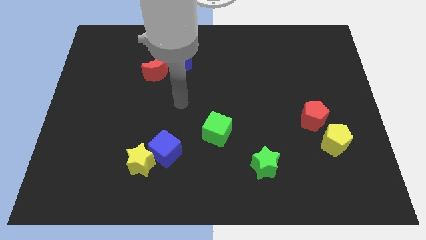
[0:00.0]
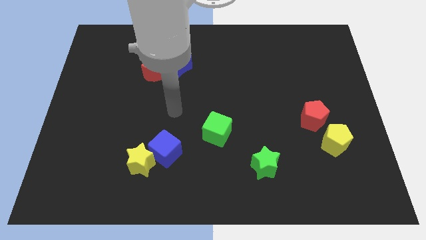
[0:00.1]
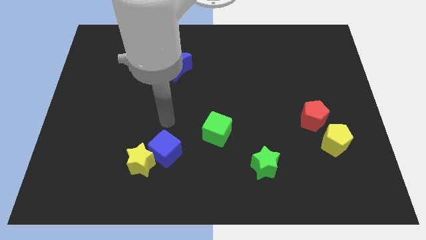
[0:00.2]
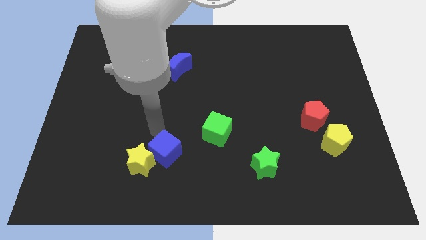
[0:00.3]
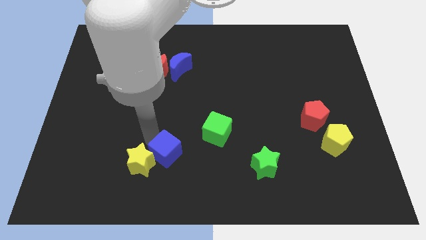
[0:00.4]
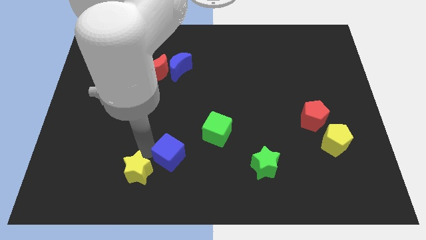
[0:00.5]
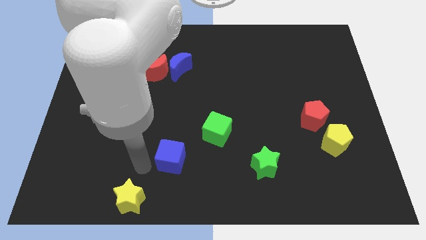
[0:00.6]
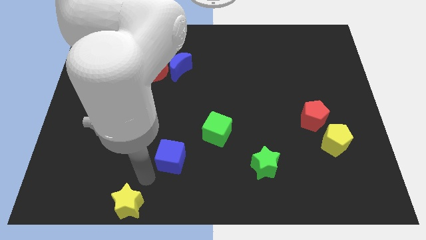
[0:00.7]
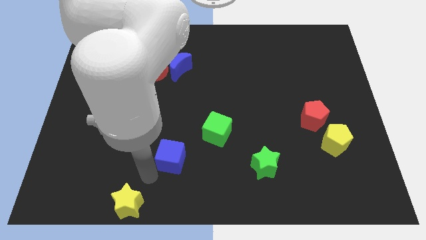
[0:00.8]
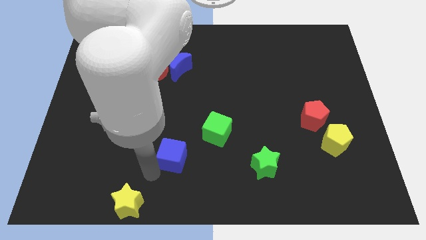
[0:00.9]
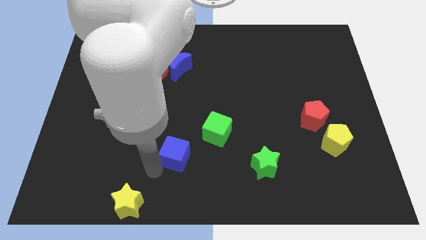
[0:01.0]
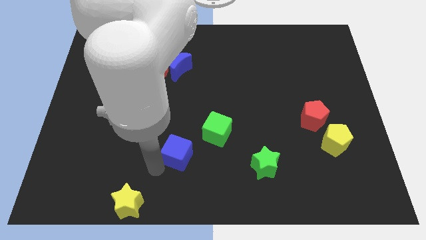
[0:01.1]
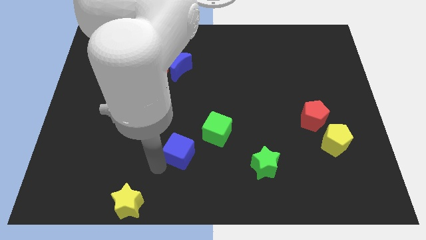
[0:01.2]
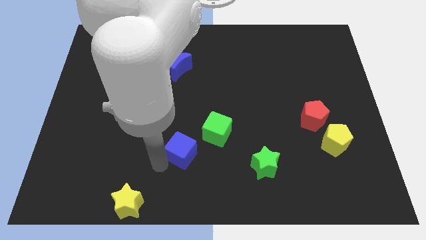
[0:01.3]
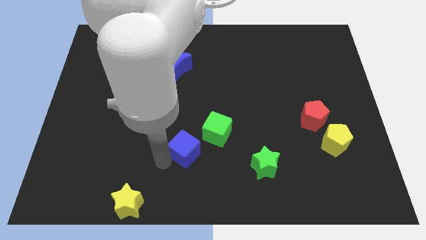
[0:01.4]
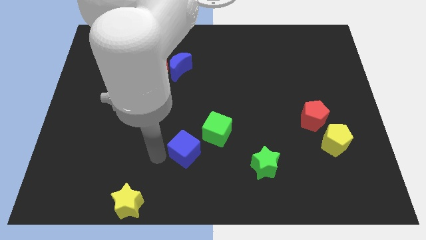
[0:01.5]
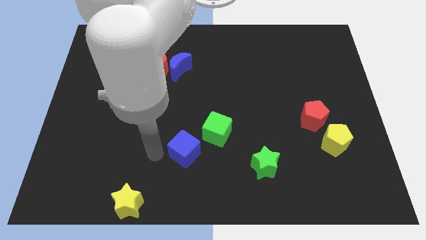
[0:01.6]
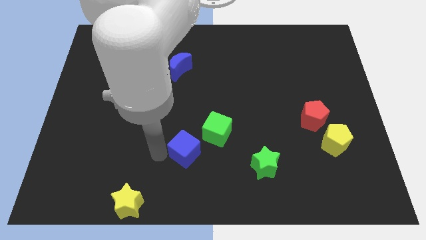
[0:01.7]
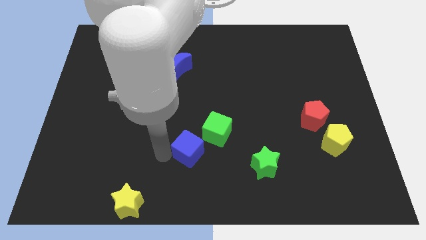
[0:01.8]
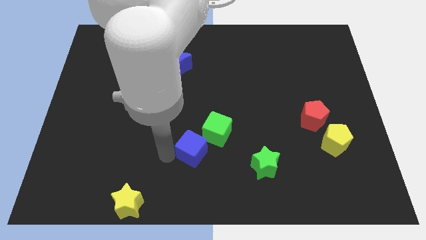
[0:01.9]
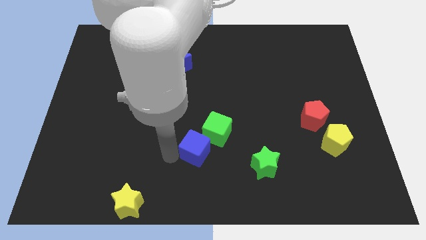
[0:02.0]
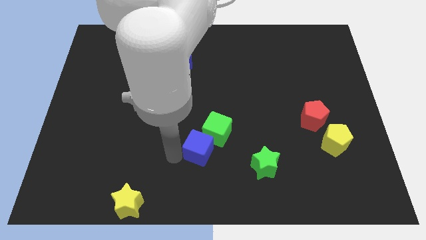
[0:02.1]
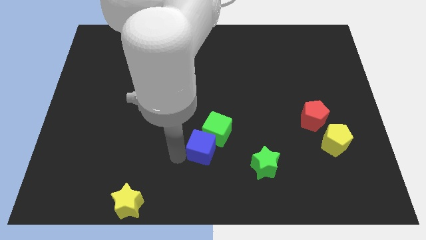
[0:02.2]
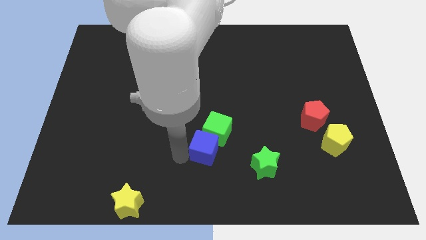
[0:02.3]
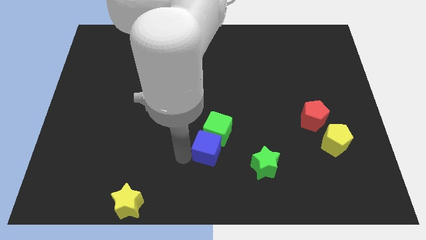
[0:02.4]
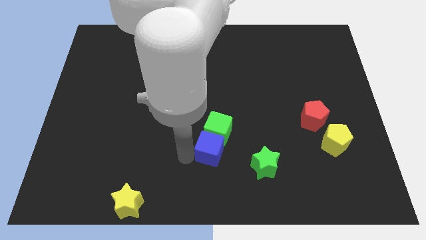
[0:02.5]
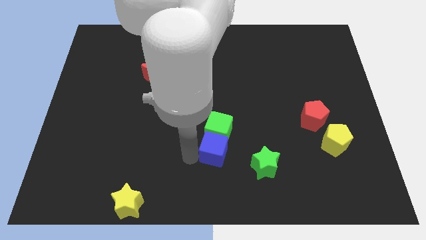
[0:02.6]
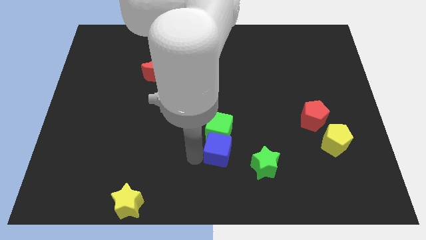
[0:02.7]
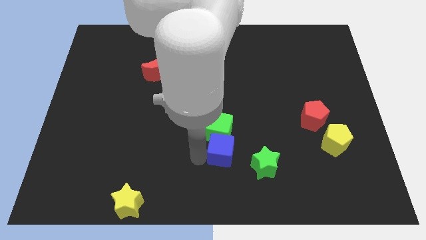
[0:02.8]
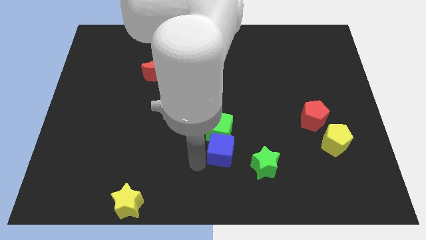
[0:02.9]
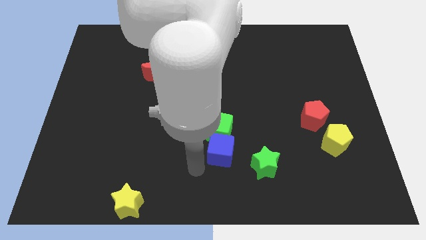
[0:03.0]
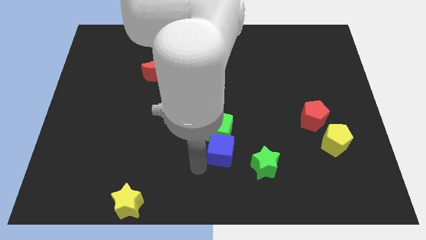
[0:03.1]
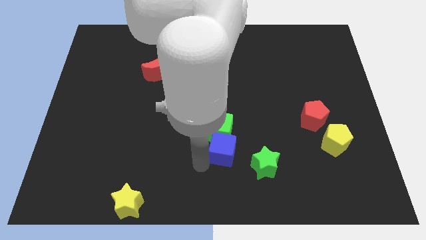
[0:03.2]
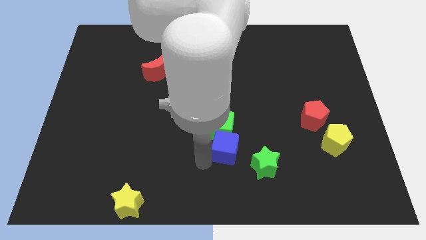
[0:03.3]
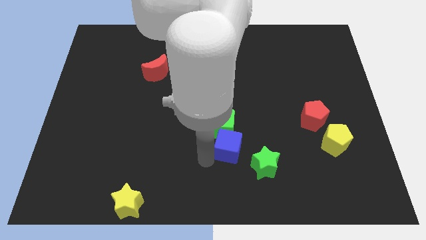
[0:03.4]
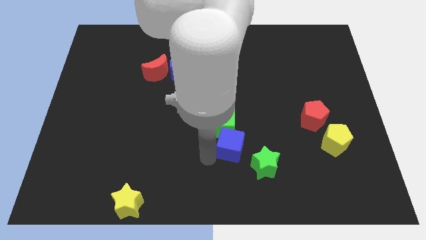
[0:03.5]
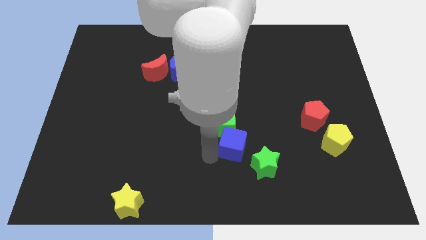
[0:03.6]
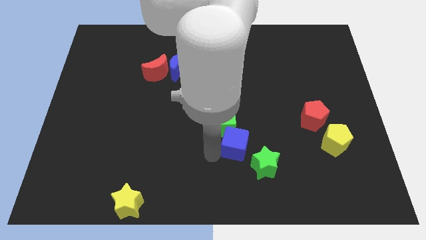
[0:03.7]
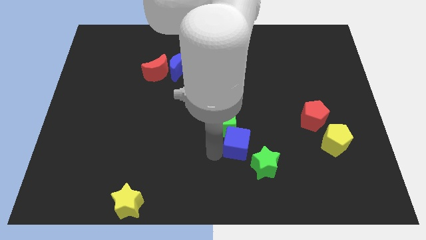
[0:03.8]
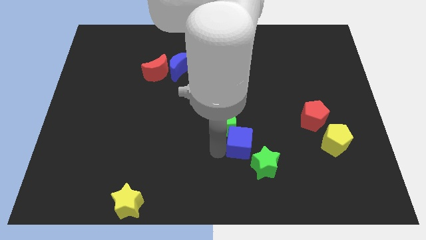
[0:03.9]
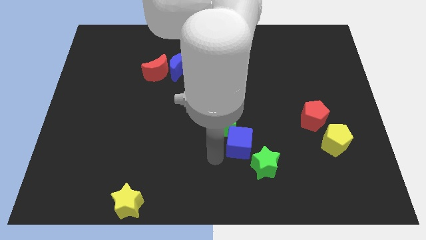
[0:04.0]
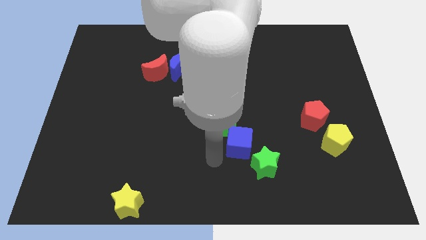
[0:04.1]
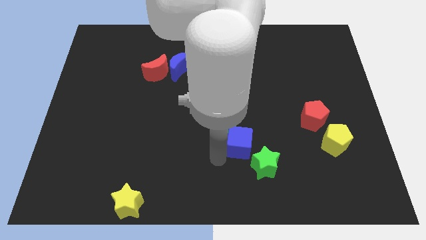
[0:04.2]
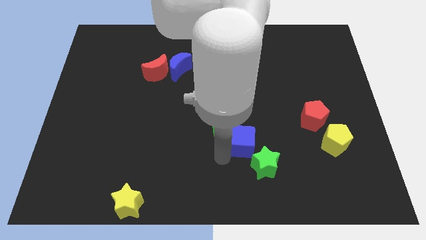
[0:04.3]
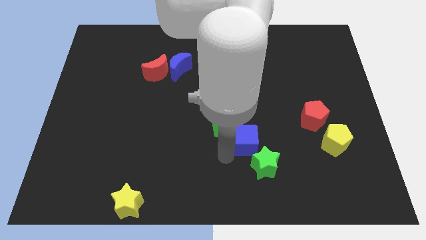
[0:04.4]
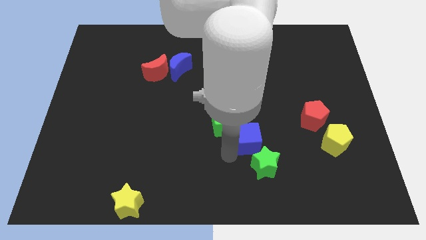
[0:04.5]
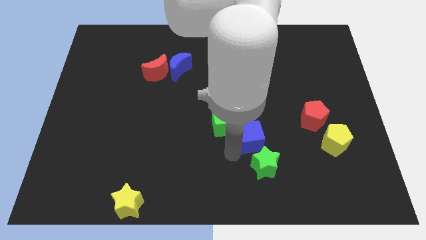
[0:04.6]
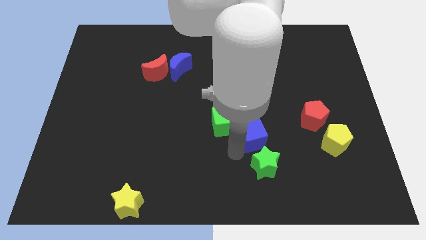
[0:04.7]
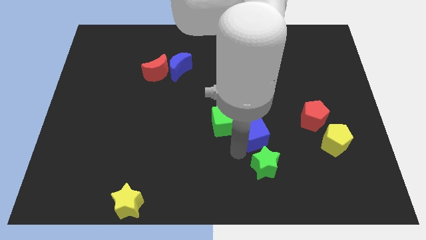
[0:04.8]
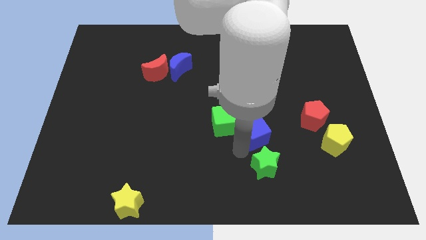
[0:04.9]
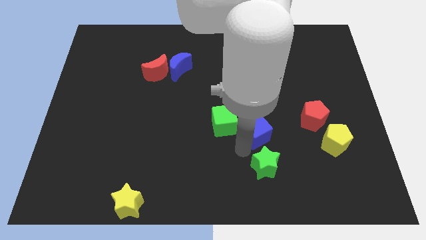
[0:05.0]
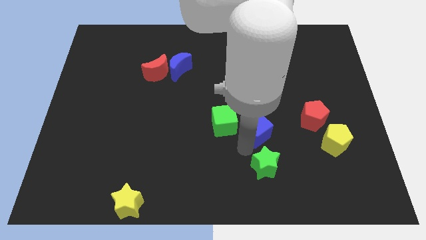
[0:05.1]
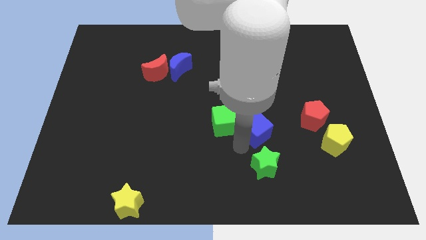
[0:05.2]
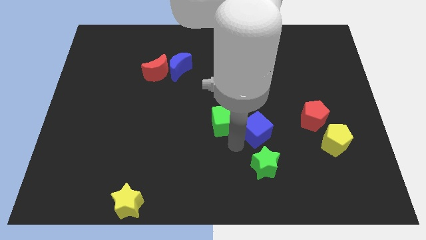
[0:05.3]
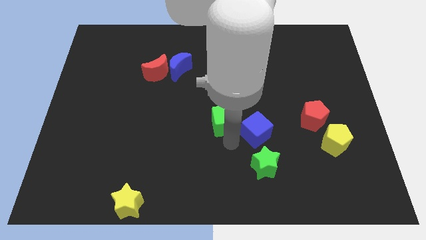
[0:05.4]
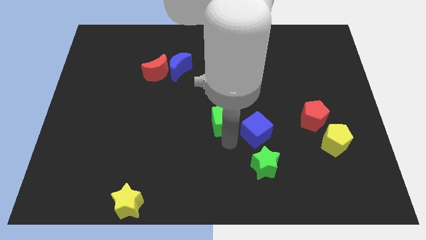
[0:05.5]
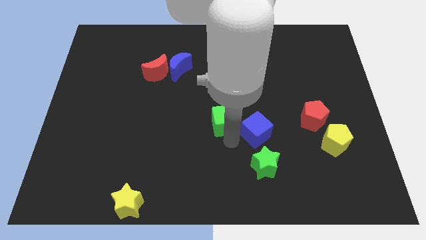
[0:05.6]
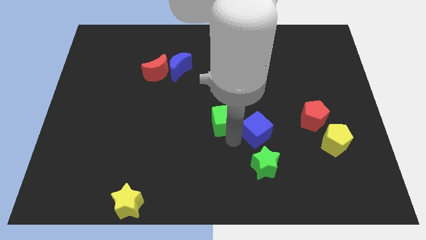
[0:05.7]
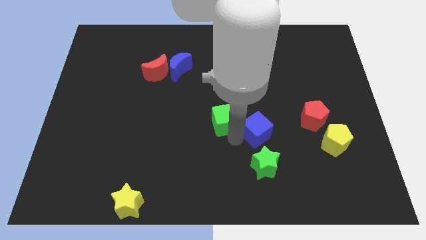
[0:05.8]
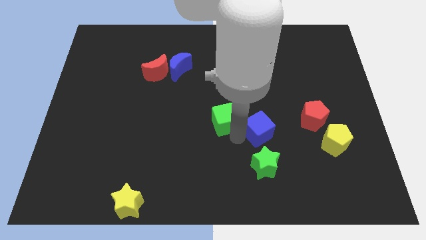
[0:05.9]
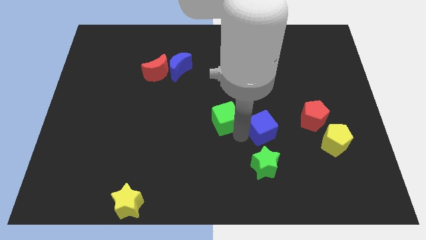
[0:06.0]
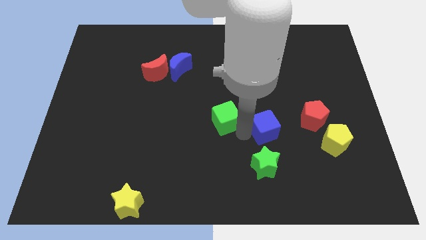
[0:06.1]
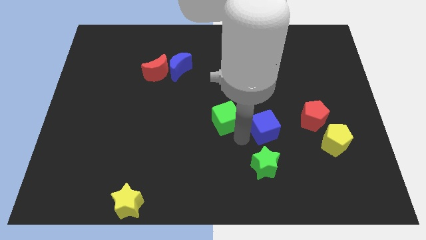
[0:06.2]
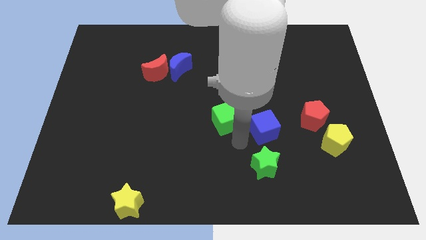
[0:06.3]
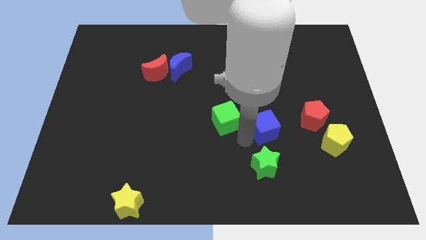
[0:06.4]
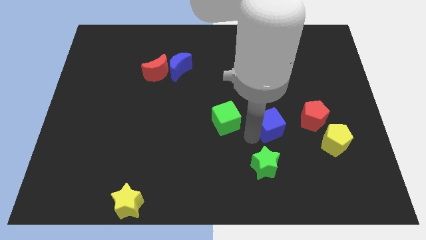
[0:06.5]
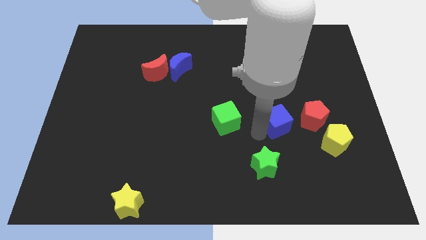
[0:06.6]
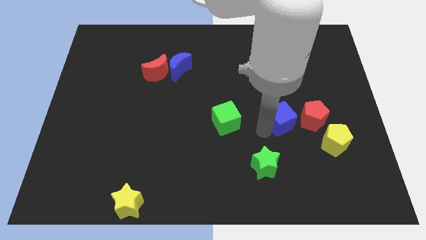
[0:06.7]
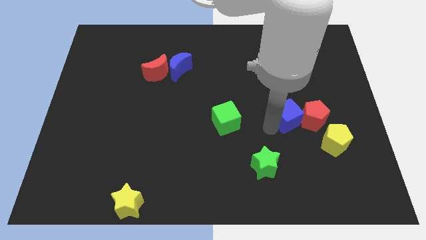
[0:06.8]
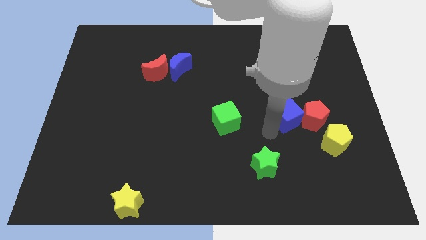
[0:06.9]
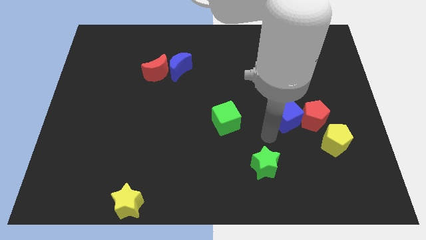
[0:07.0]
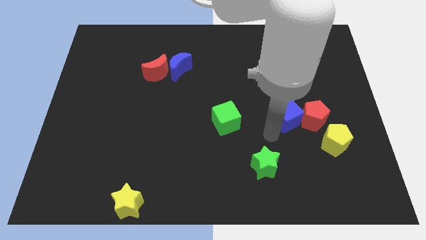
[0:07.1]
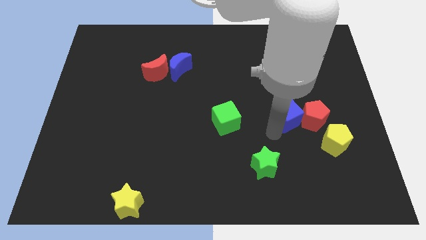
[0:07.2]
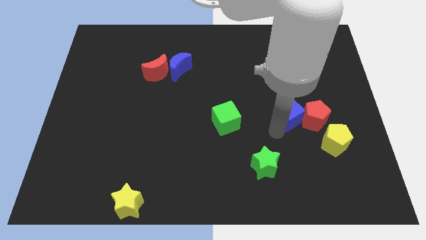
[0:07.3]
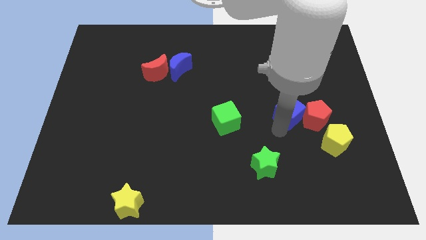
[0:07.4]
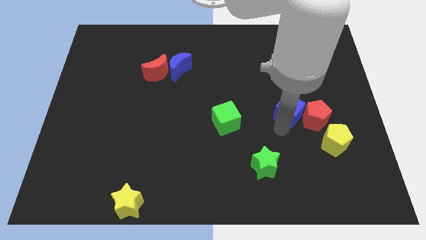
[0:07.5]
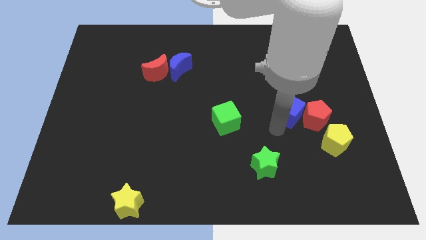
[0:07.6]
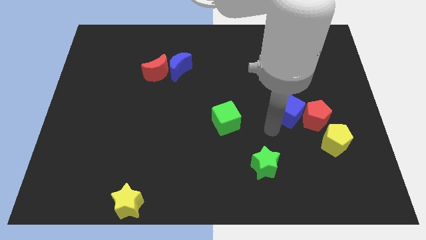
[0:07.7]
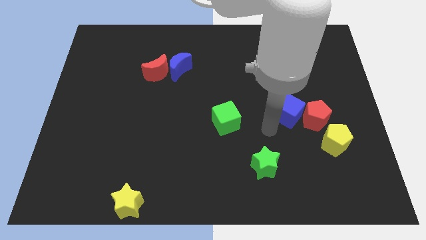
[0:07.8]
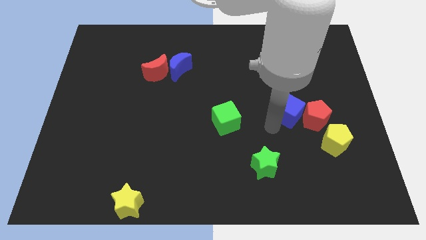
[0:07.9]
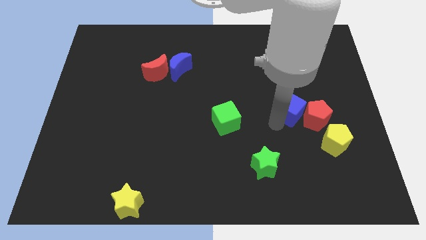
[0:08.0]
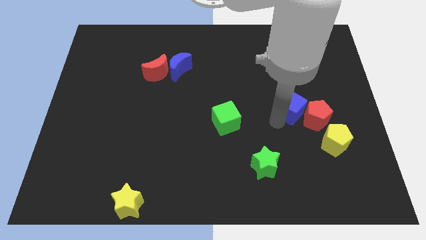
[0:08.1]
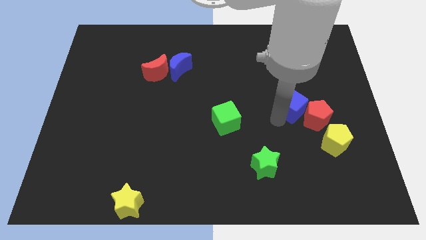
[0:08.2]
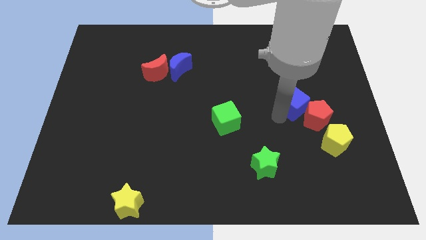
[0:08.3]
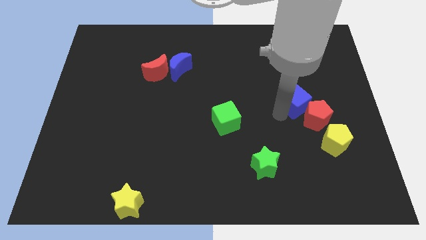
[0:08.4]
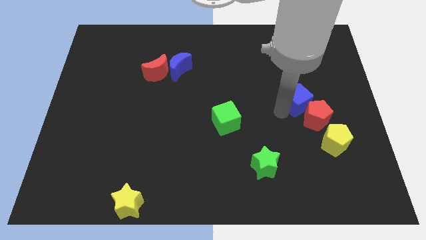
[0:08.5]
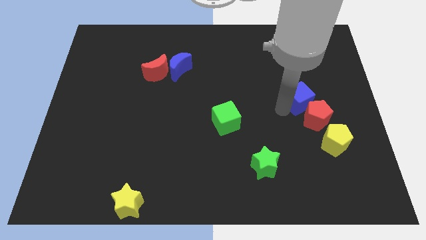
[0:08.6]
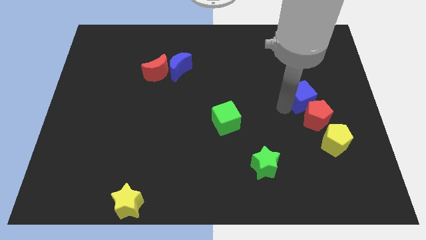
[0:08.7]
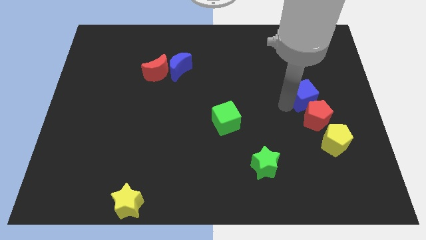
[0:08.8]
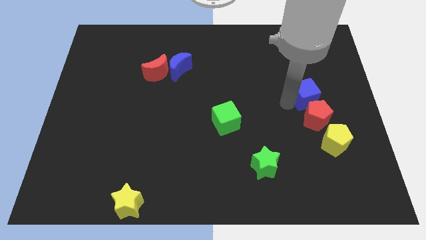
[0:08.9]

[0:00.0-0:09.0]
push the blue cube to the top of the yellow pentagon
